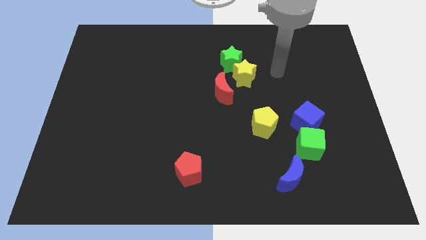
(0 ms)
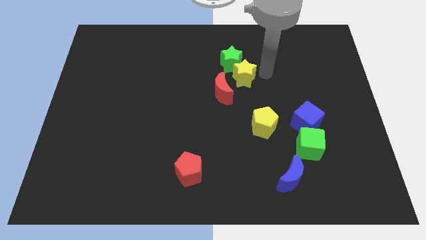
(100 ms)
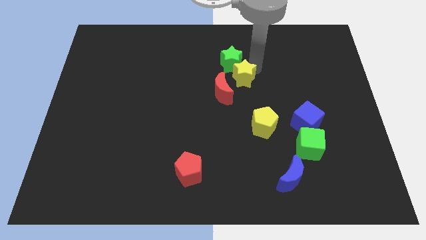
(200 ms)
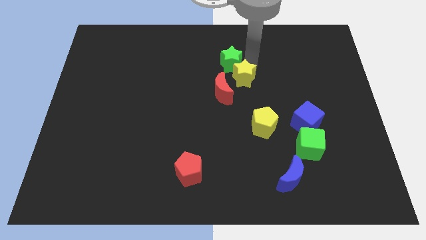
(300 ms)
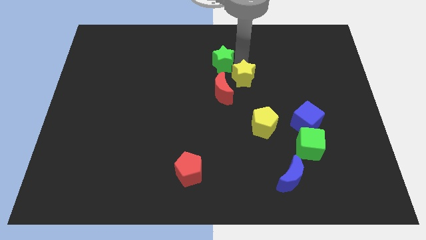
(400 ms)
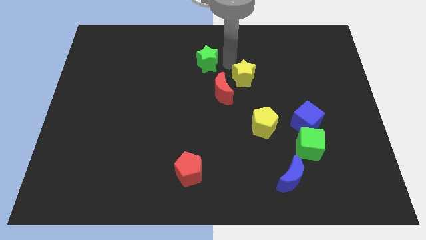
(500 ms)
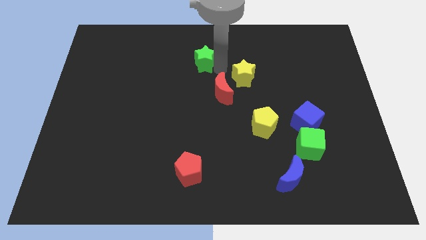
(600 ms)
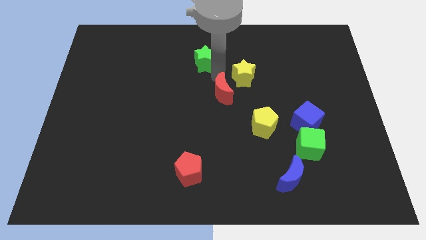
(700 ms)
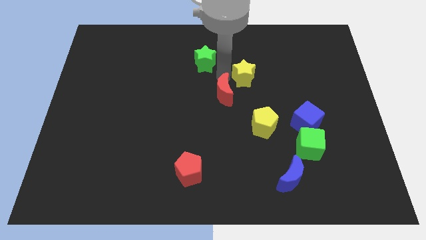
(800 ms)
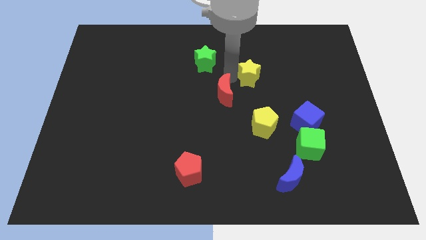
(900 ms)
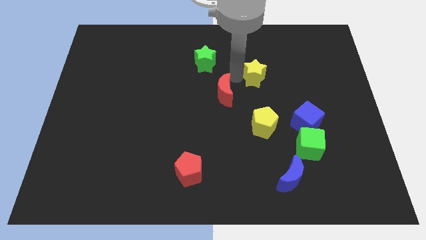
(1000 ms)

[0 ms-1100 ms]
move the yellow star away from the green star and red moon

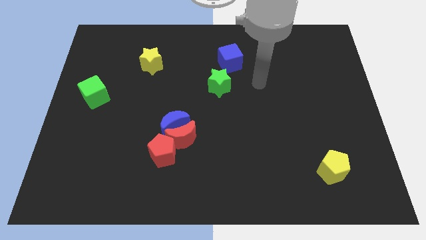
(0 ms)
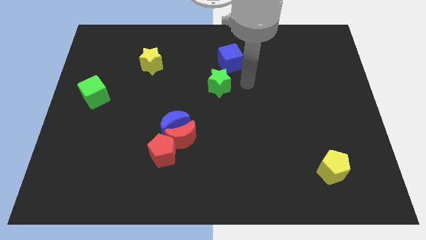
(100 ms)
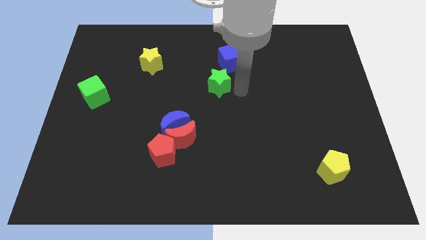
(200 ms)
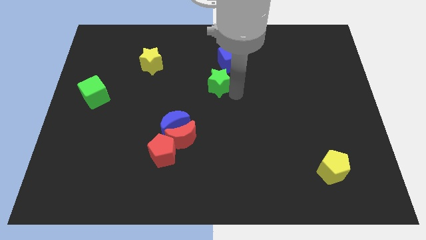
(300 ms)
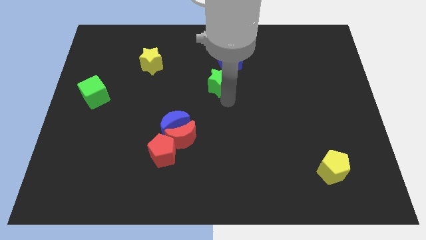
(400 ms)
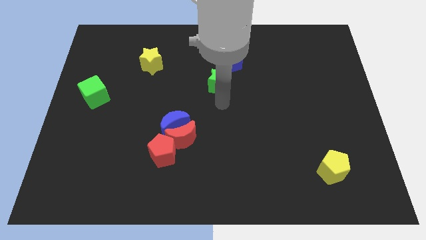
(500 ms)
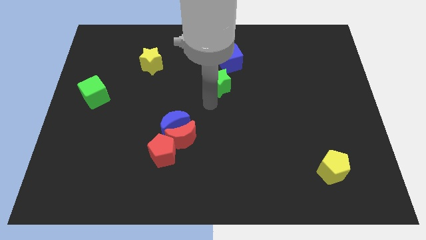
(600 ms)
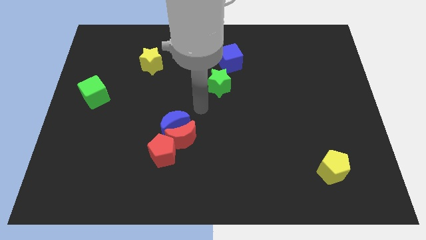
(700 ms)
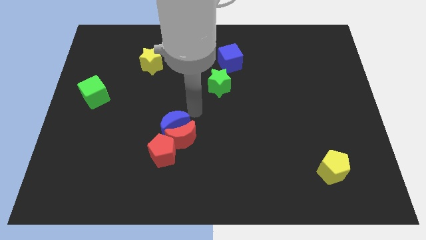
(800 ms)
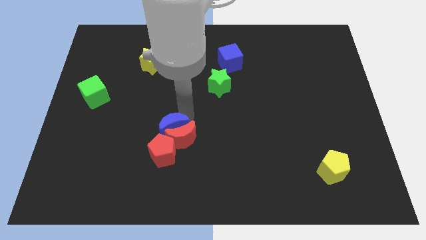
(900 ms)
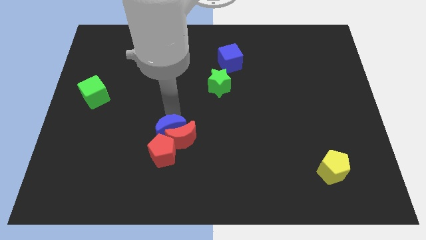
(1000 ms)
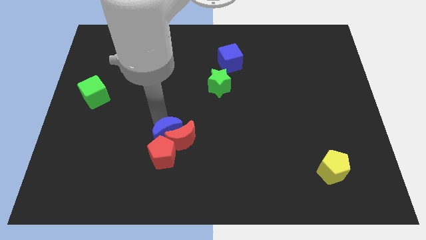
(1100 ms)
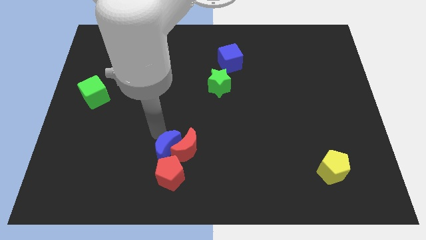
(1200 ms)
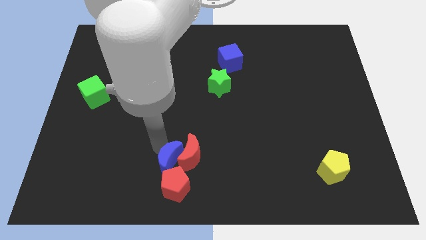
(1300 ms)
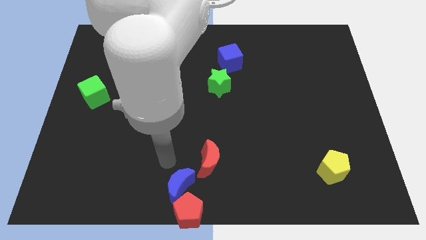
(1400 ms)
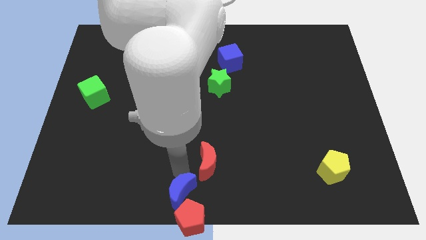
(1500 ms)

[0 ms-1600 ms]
pull the red moon apart from the blue moon and red pentagon

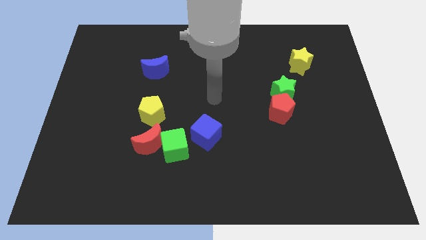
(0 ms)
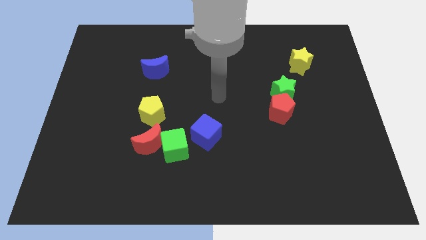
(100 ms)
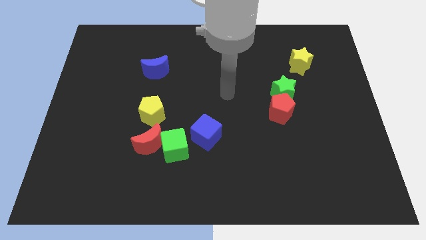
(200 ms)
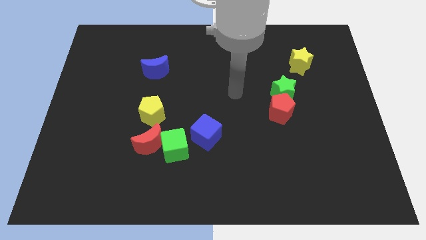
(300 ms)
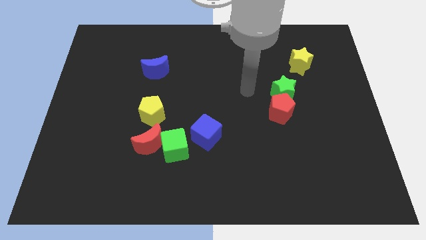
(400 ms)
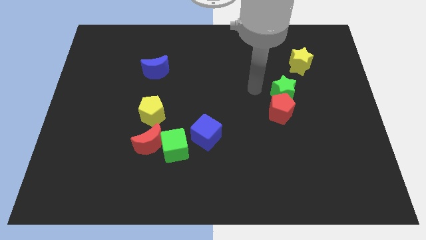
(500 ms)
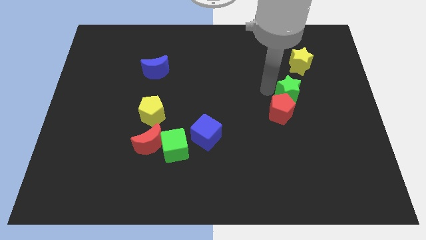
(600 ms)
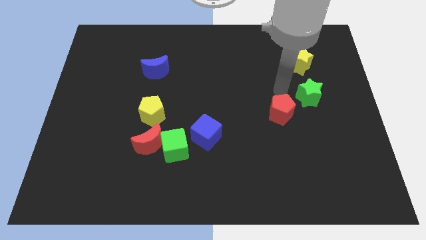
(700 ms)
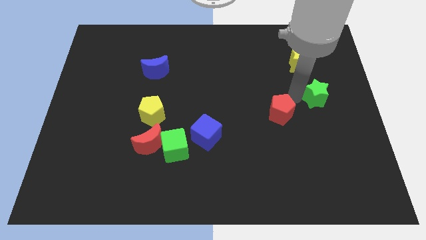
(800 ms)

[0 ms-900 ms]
move the red pentagon away from the green star

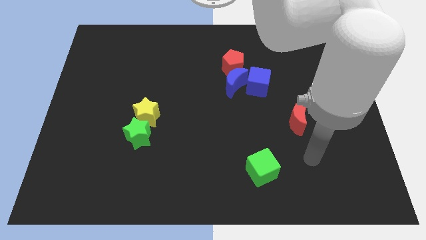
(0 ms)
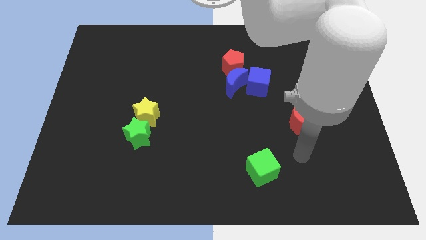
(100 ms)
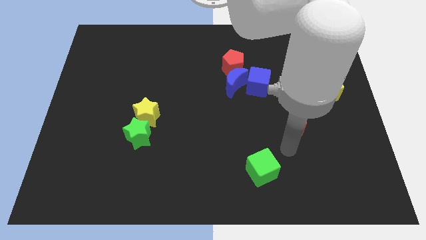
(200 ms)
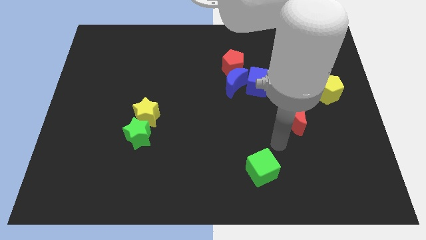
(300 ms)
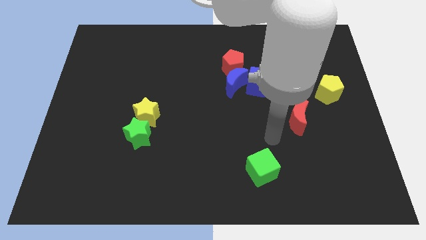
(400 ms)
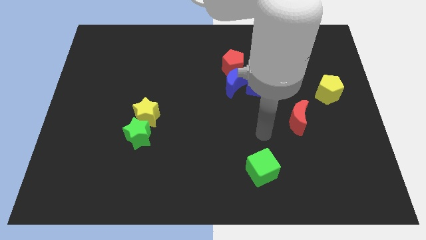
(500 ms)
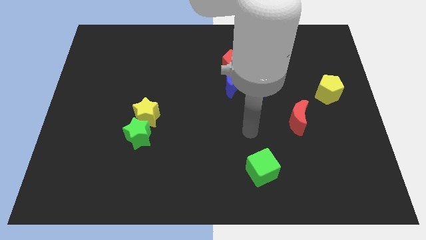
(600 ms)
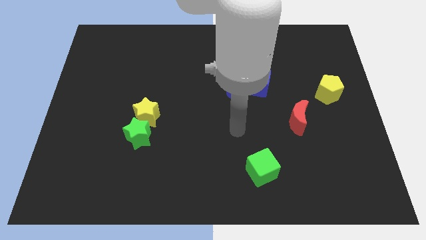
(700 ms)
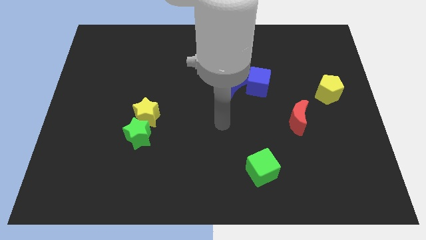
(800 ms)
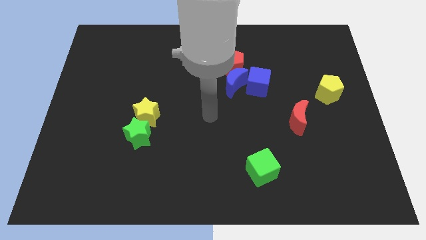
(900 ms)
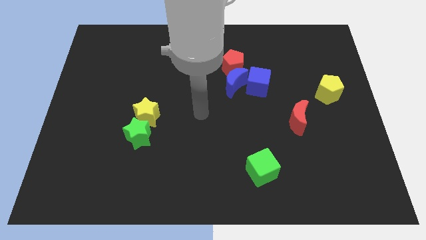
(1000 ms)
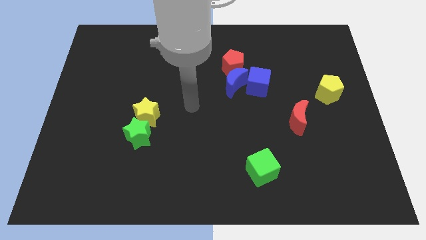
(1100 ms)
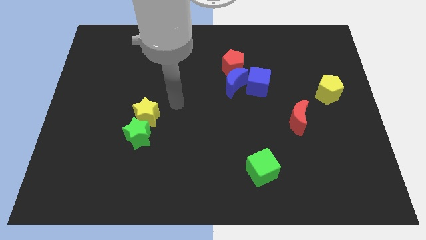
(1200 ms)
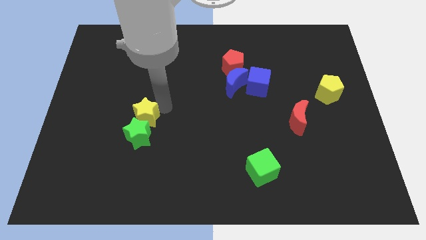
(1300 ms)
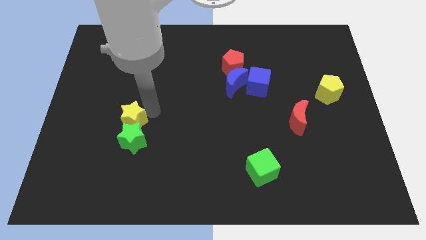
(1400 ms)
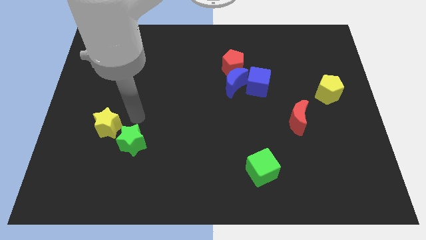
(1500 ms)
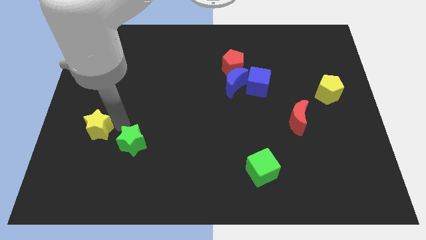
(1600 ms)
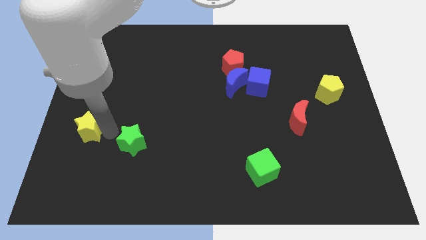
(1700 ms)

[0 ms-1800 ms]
pull the green star apart from the yellow star

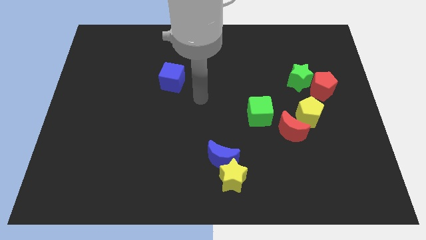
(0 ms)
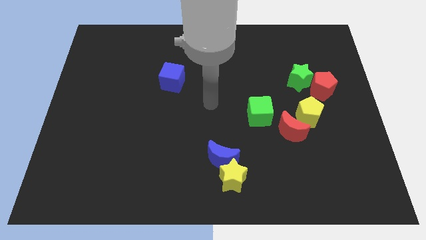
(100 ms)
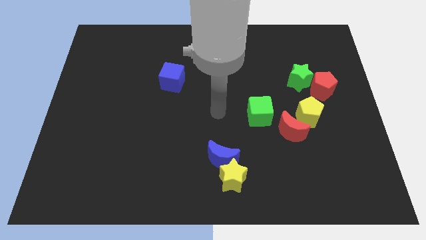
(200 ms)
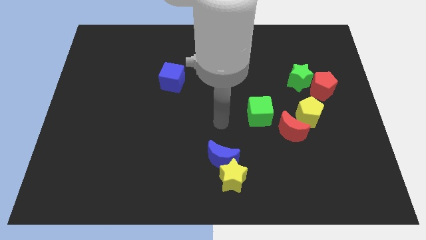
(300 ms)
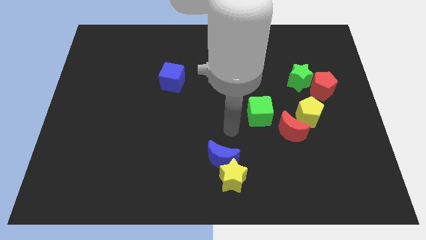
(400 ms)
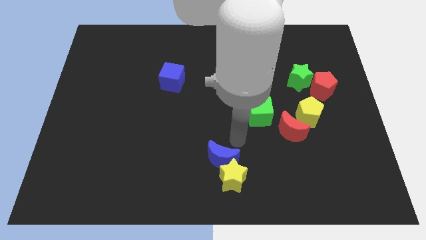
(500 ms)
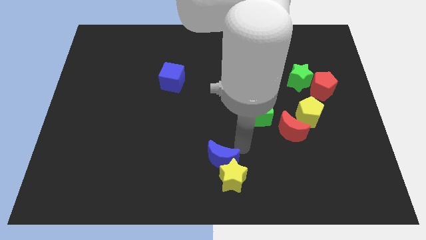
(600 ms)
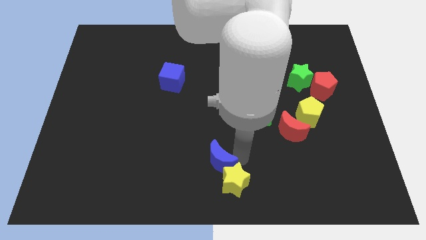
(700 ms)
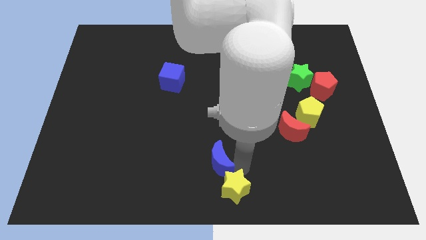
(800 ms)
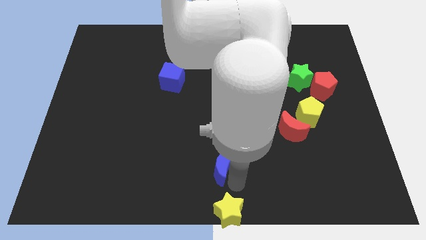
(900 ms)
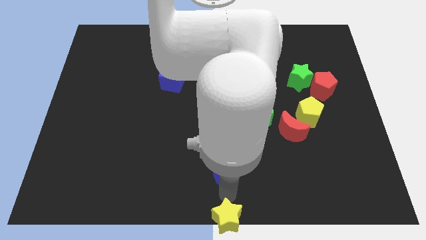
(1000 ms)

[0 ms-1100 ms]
pull the blue moon apart from the yellow star

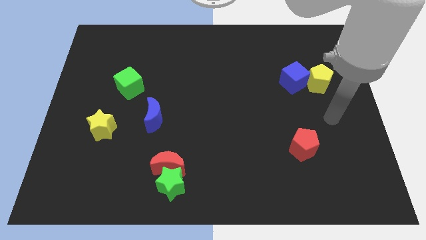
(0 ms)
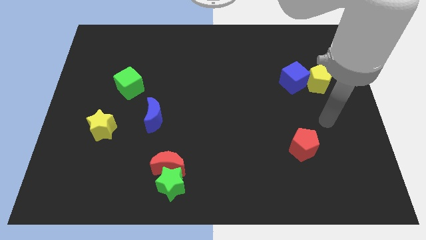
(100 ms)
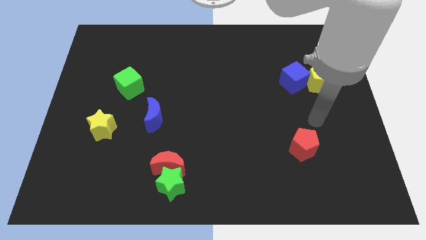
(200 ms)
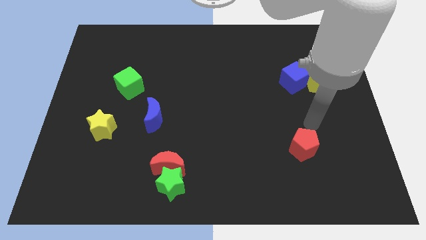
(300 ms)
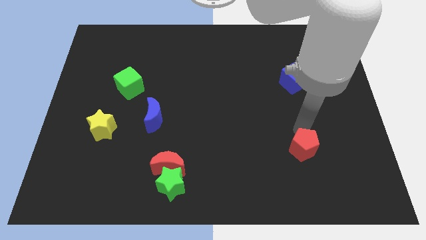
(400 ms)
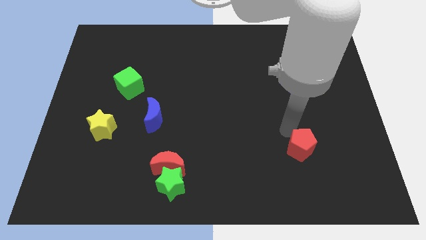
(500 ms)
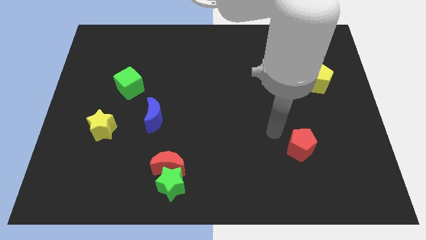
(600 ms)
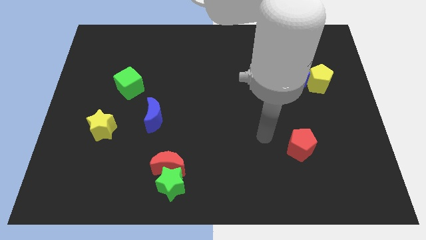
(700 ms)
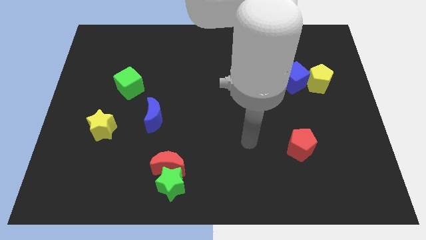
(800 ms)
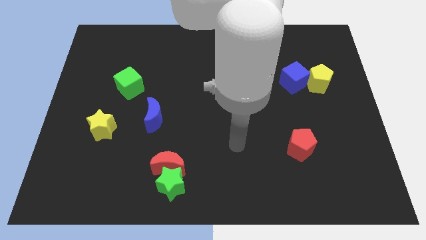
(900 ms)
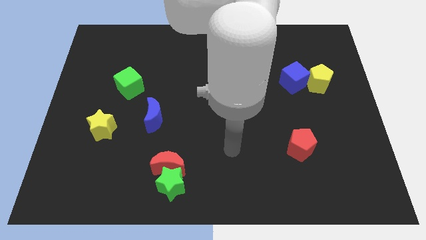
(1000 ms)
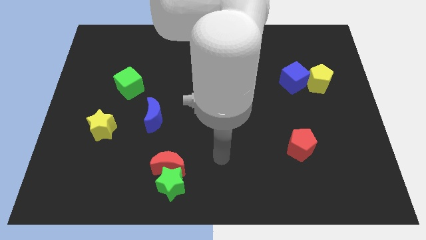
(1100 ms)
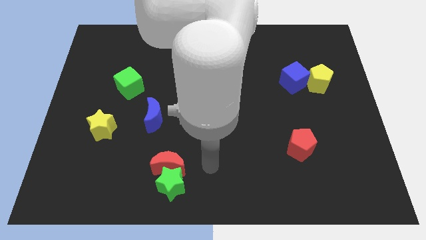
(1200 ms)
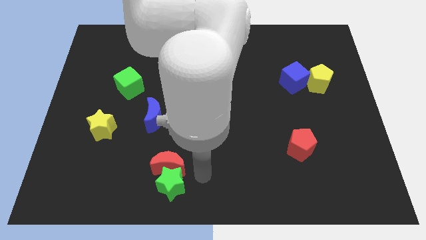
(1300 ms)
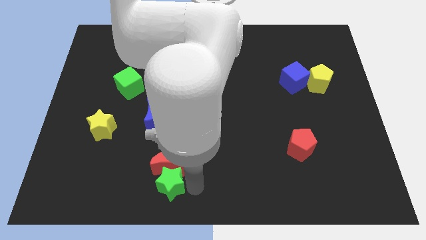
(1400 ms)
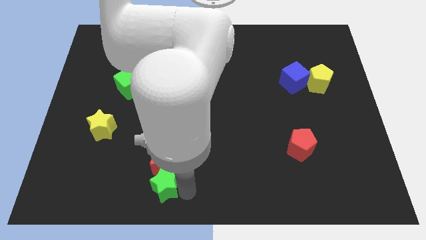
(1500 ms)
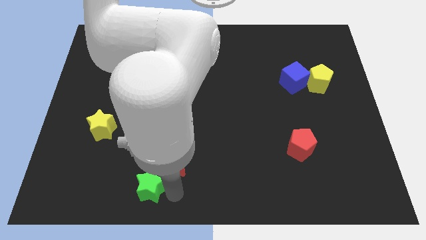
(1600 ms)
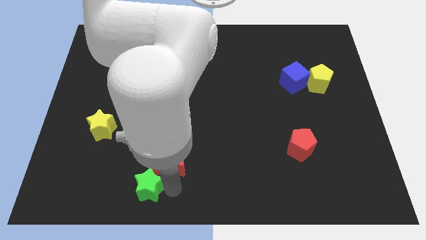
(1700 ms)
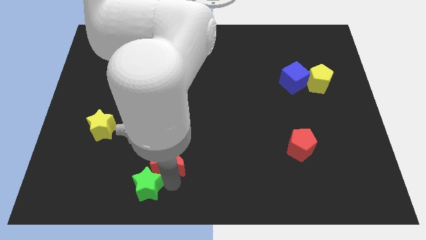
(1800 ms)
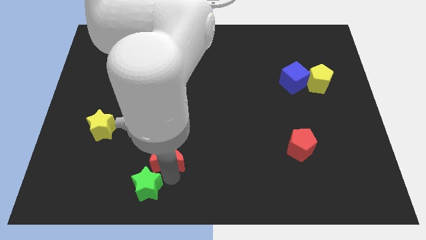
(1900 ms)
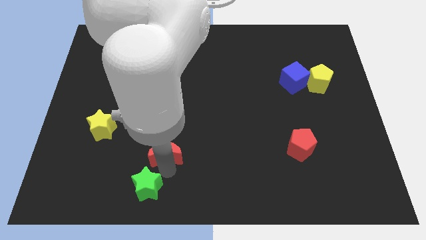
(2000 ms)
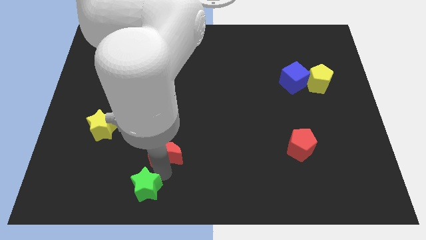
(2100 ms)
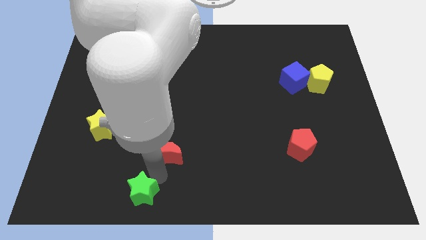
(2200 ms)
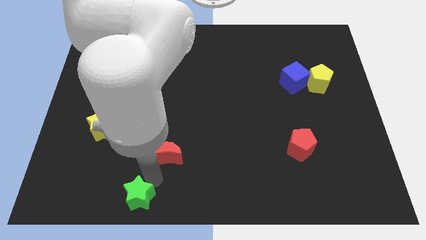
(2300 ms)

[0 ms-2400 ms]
pull the red moon apart from the green star

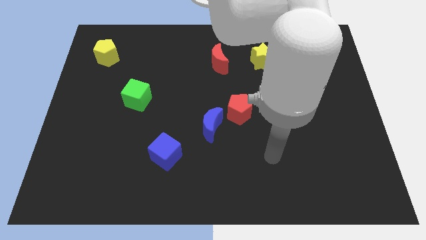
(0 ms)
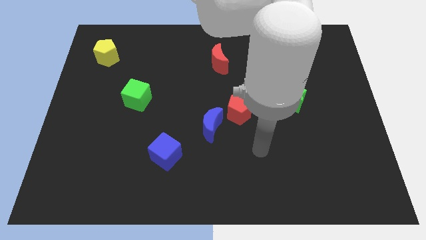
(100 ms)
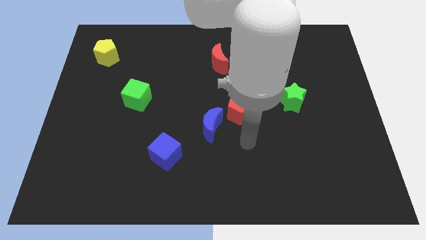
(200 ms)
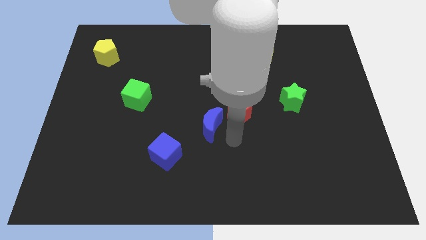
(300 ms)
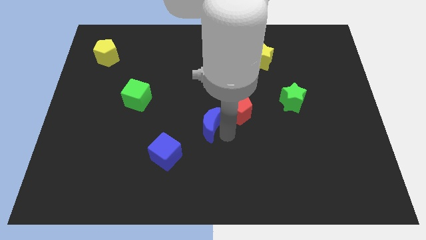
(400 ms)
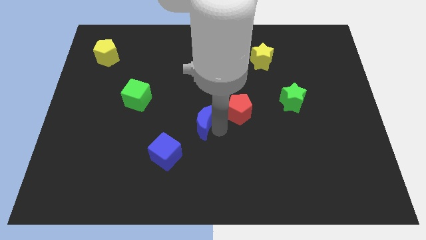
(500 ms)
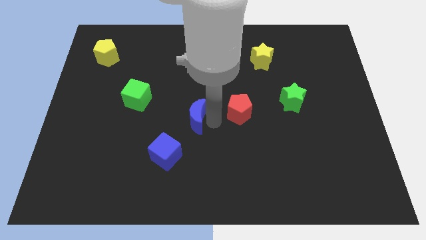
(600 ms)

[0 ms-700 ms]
move the red pentagon away from the blue moon
